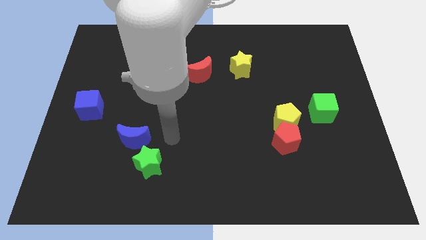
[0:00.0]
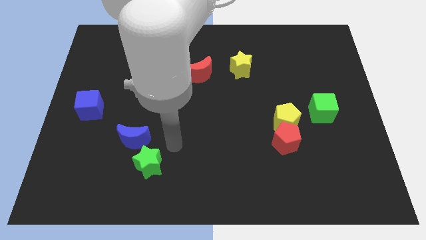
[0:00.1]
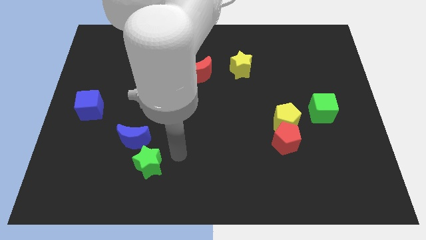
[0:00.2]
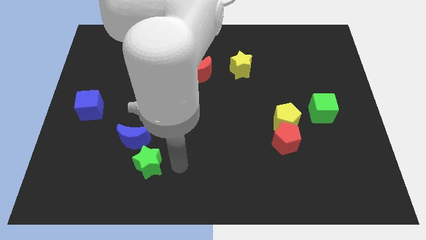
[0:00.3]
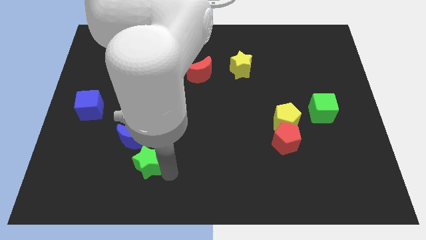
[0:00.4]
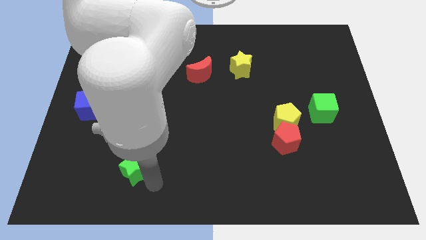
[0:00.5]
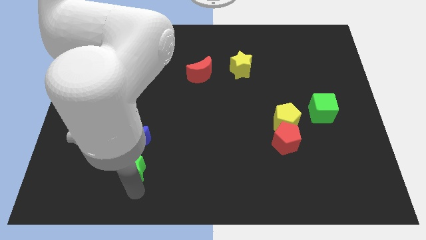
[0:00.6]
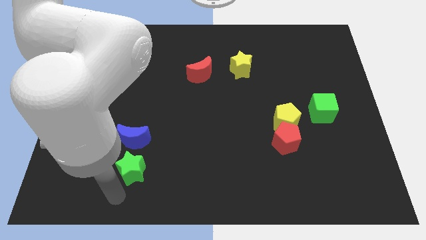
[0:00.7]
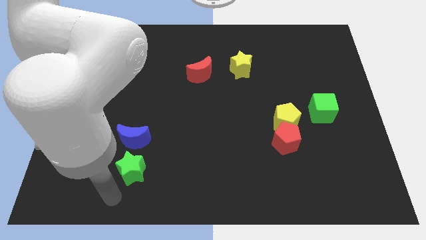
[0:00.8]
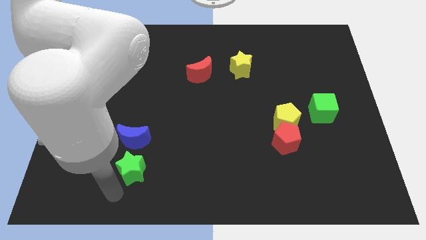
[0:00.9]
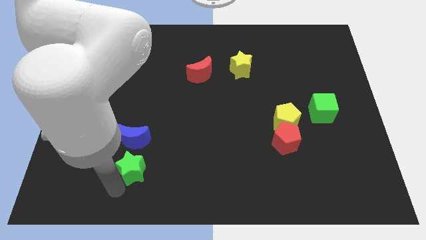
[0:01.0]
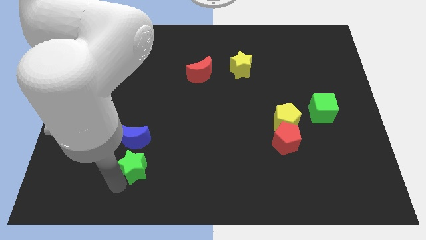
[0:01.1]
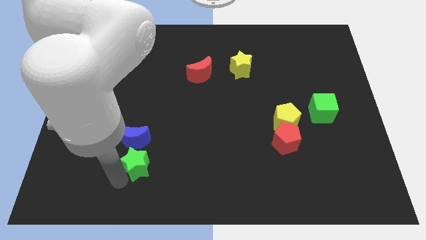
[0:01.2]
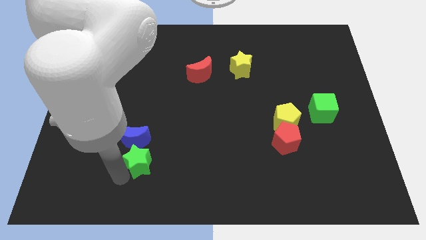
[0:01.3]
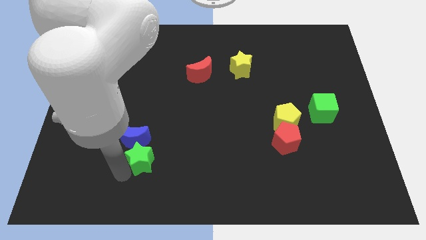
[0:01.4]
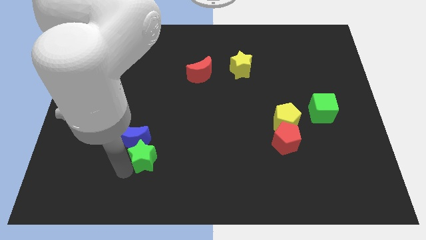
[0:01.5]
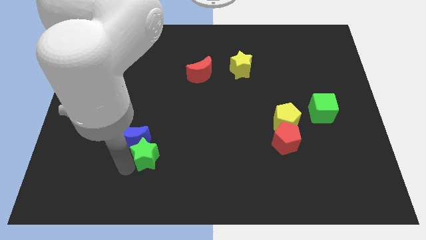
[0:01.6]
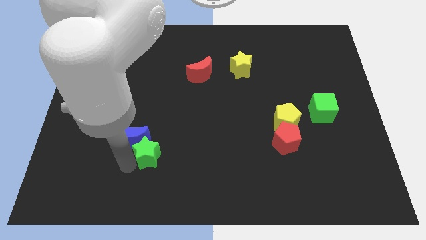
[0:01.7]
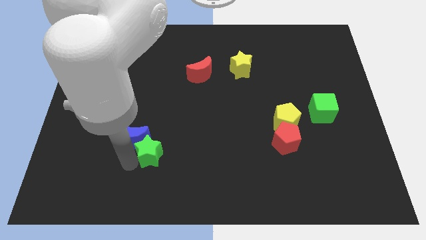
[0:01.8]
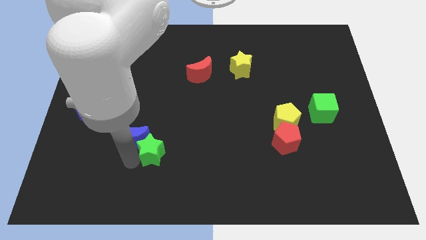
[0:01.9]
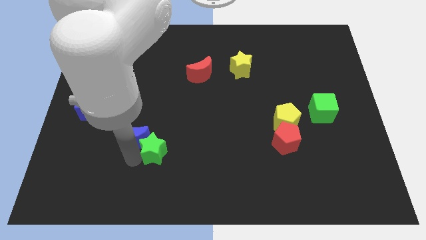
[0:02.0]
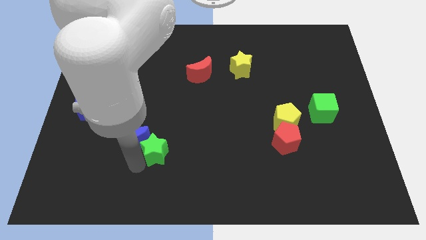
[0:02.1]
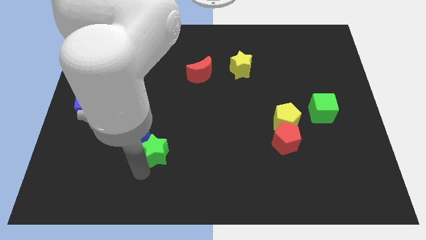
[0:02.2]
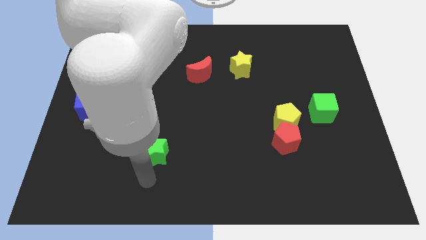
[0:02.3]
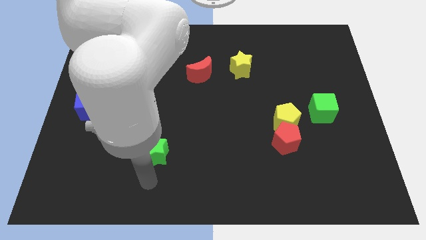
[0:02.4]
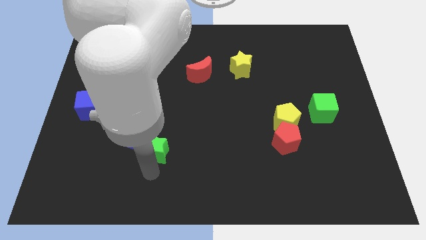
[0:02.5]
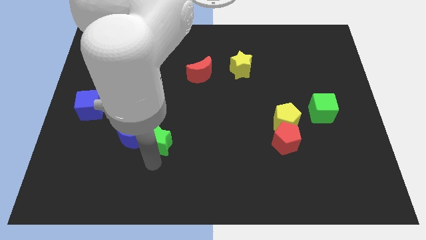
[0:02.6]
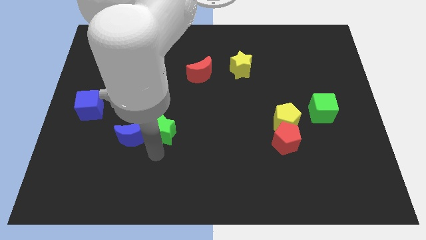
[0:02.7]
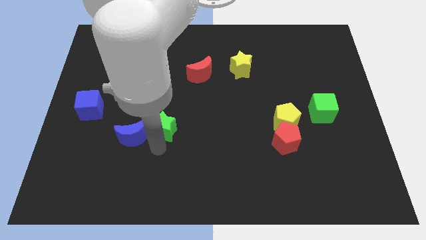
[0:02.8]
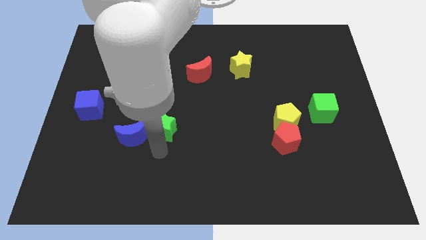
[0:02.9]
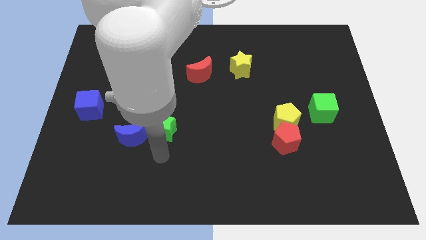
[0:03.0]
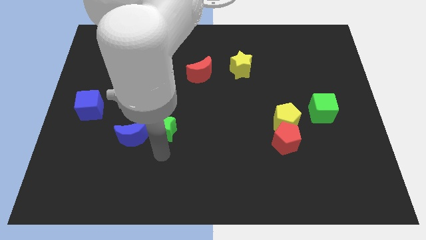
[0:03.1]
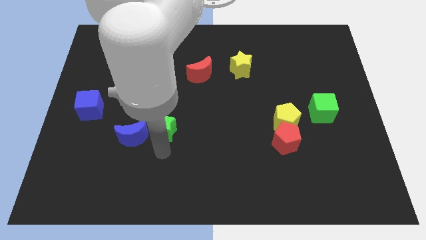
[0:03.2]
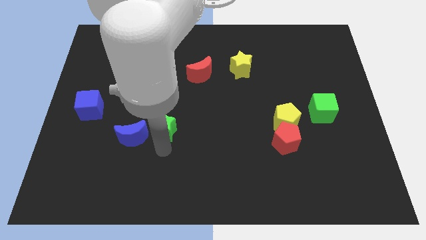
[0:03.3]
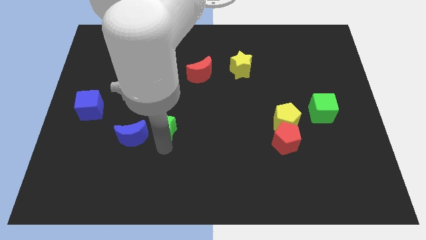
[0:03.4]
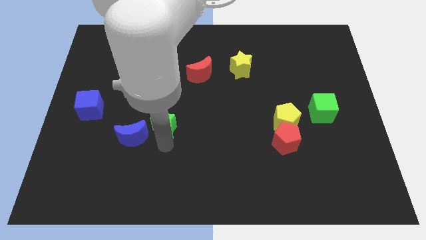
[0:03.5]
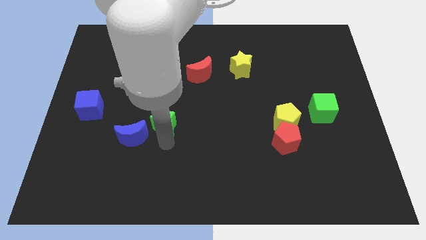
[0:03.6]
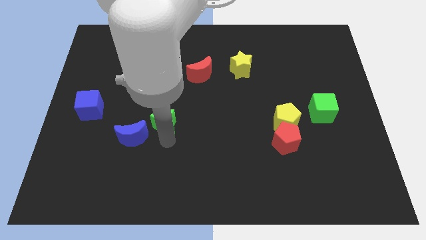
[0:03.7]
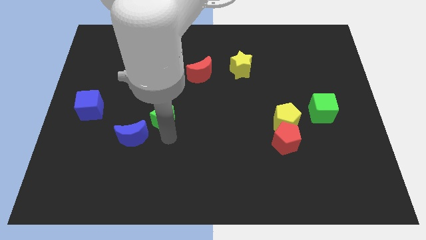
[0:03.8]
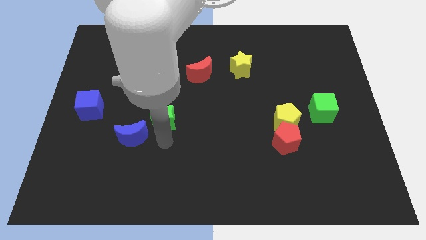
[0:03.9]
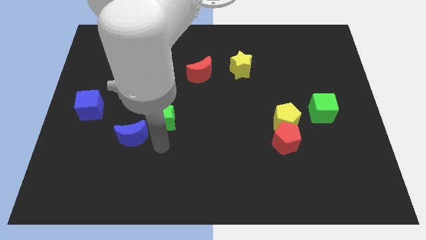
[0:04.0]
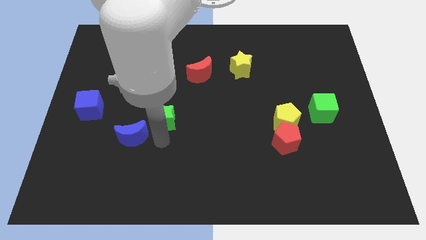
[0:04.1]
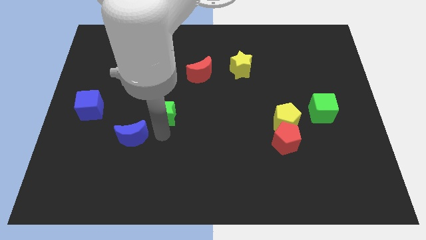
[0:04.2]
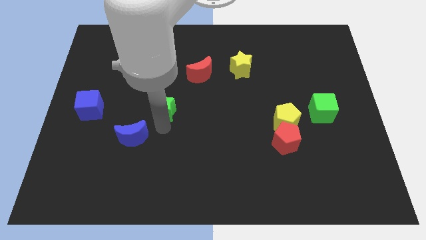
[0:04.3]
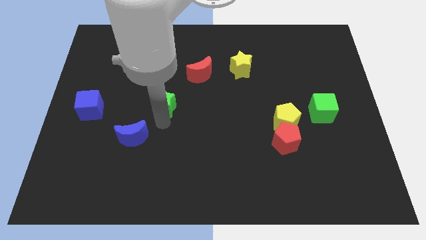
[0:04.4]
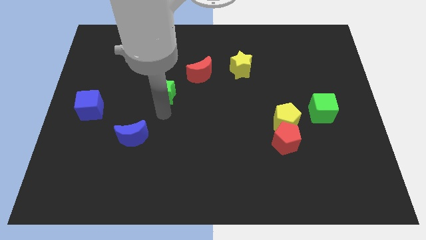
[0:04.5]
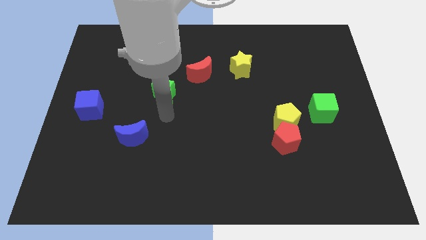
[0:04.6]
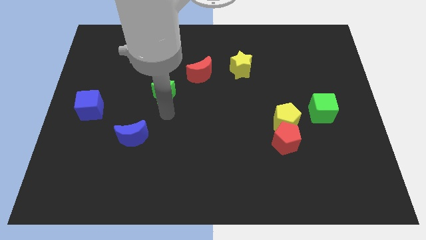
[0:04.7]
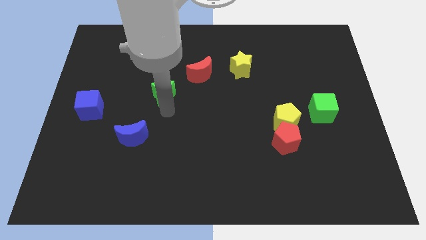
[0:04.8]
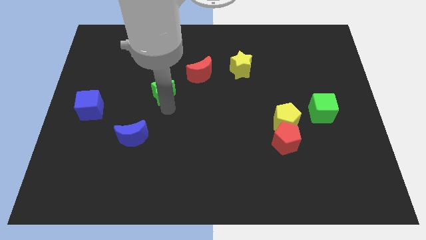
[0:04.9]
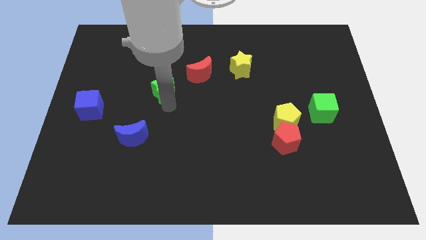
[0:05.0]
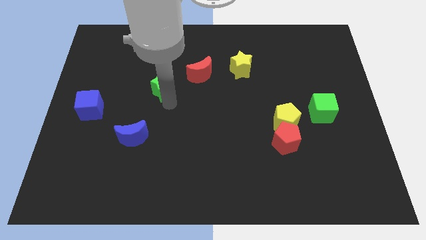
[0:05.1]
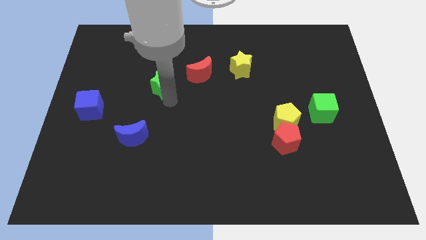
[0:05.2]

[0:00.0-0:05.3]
push the green star left of the red moon

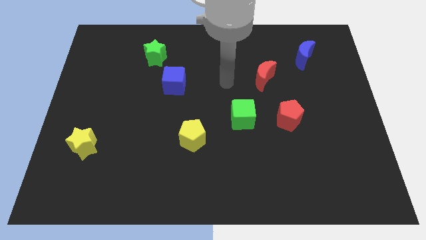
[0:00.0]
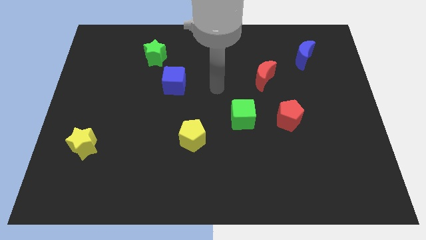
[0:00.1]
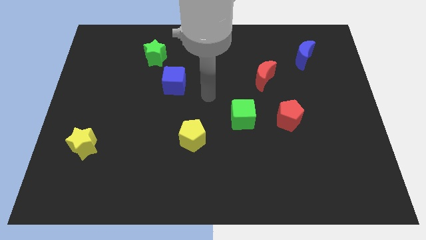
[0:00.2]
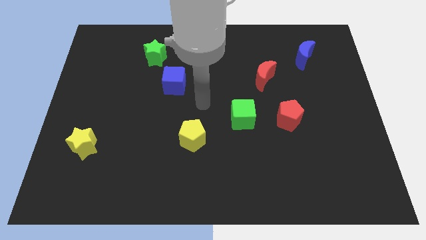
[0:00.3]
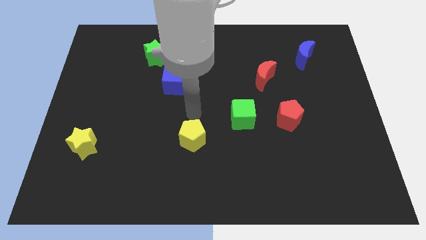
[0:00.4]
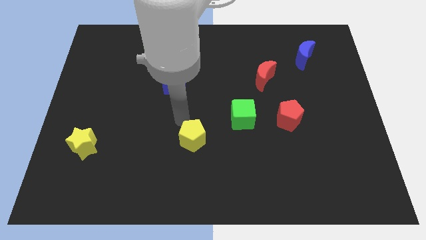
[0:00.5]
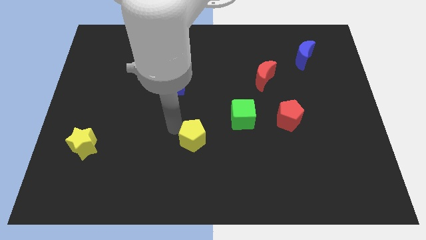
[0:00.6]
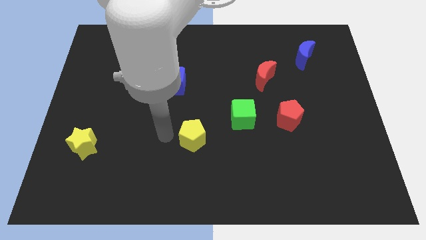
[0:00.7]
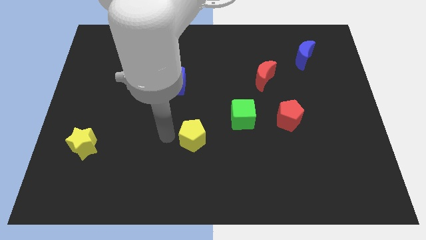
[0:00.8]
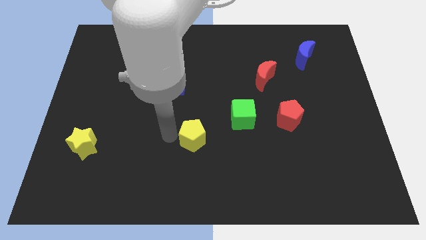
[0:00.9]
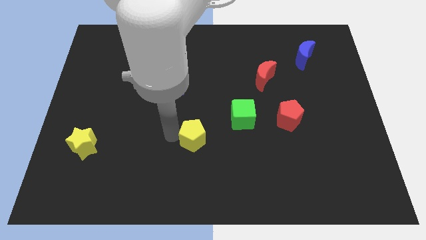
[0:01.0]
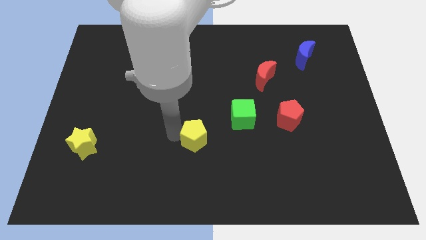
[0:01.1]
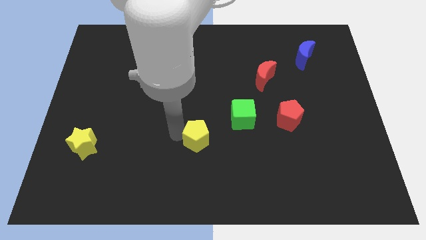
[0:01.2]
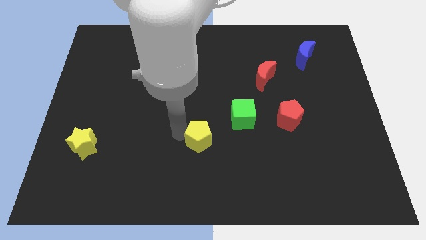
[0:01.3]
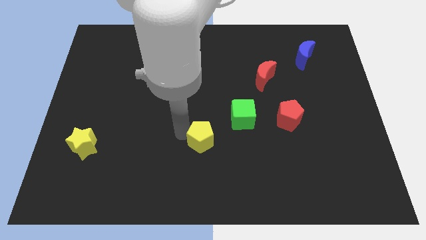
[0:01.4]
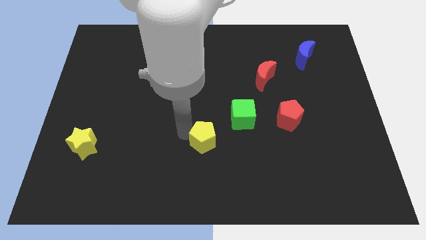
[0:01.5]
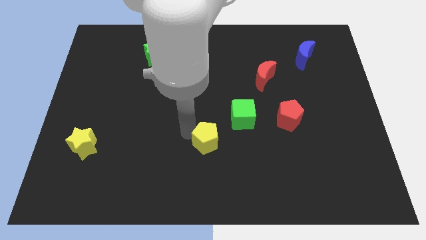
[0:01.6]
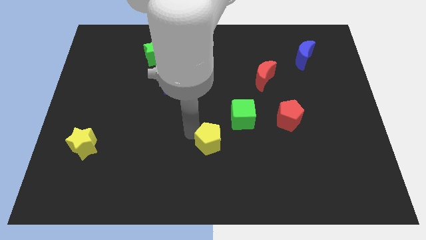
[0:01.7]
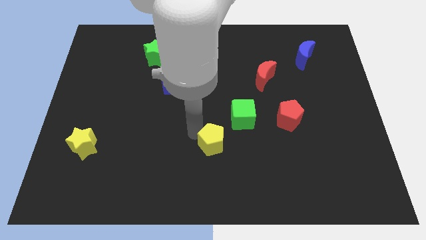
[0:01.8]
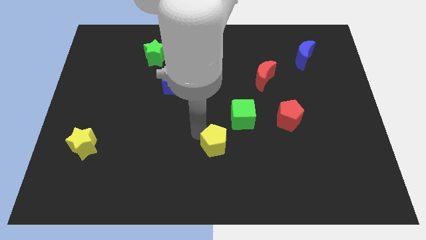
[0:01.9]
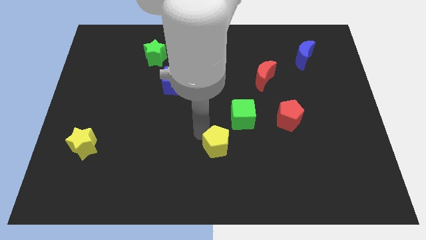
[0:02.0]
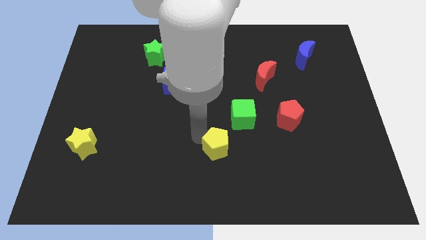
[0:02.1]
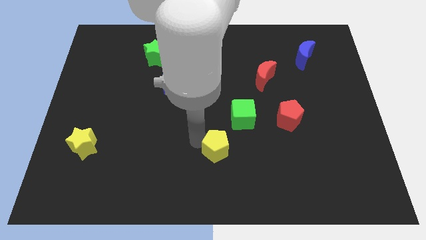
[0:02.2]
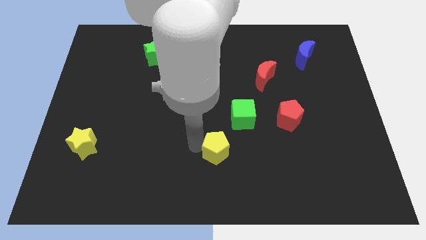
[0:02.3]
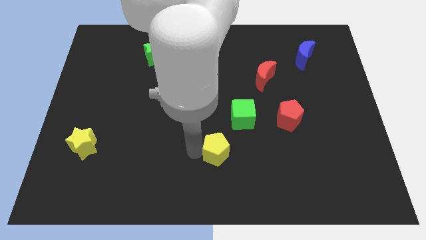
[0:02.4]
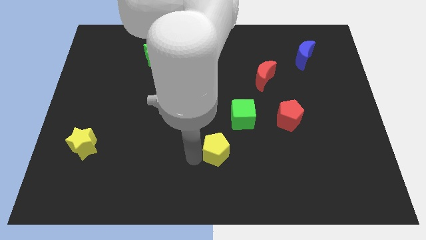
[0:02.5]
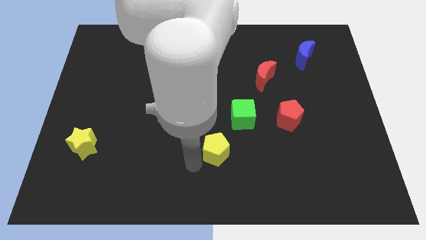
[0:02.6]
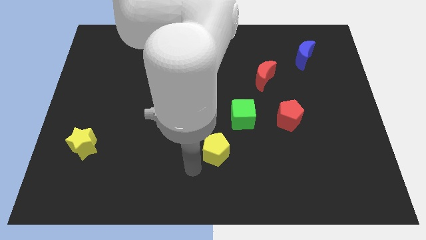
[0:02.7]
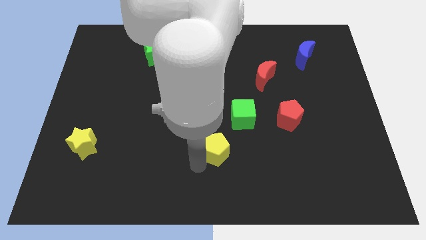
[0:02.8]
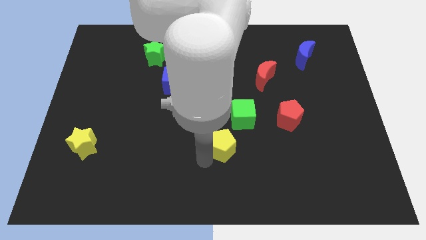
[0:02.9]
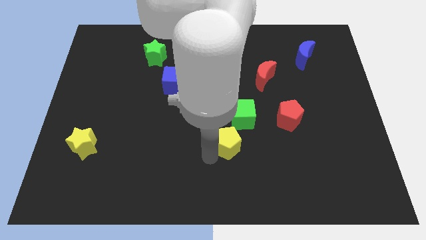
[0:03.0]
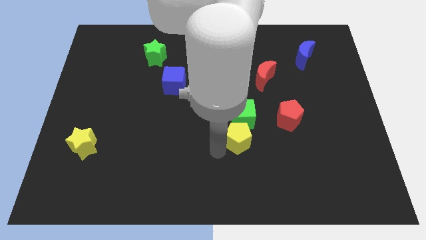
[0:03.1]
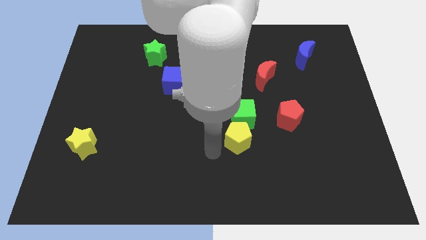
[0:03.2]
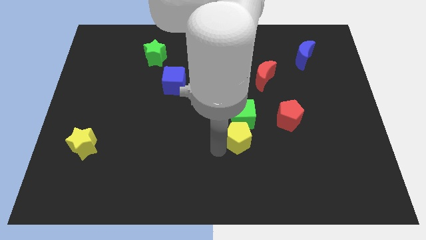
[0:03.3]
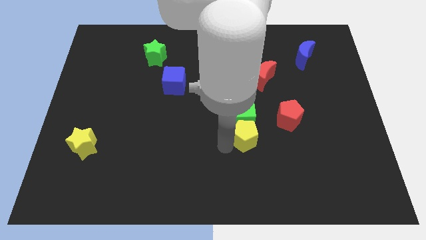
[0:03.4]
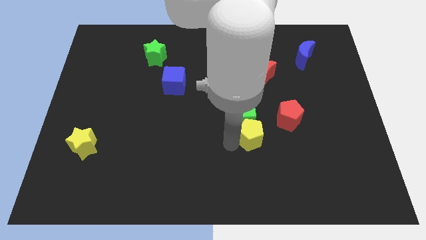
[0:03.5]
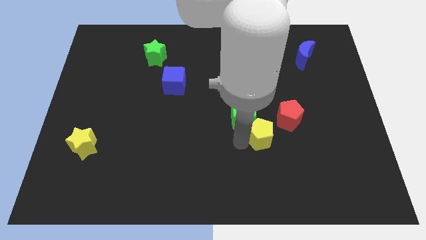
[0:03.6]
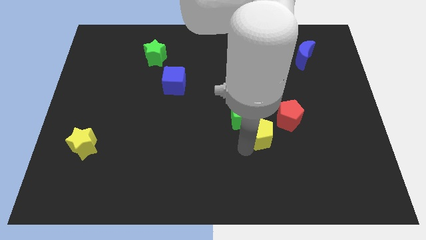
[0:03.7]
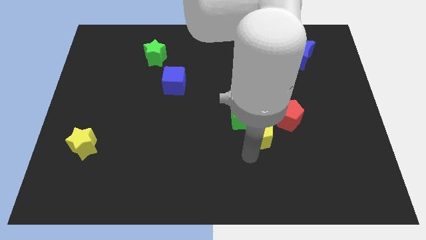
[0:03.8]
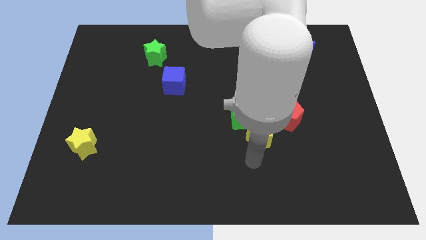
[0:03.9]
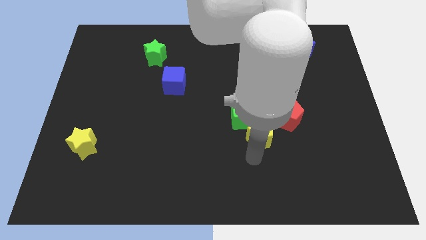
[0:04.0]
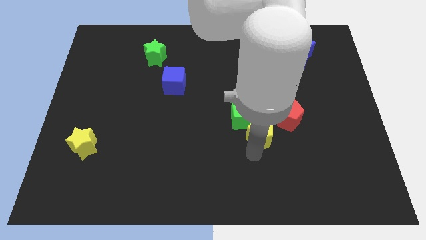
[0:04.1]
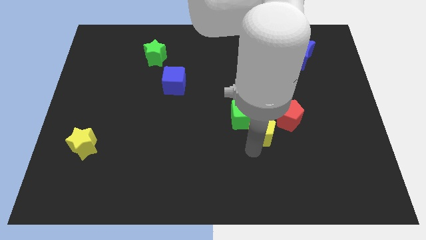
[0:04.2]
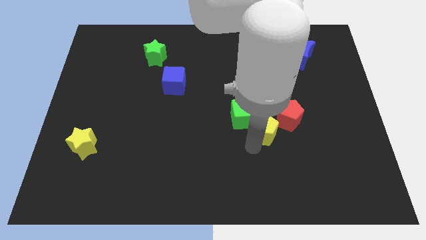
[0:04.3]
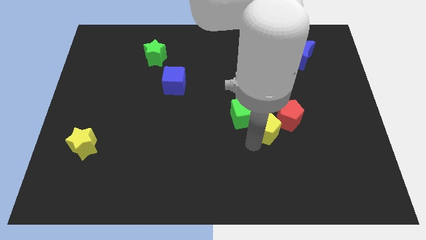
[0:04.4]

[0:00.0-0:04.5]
put the yellow pentagon to the bottom side of the red moon
